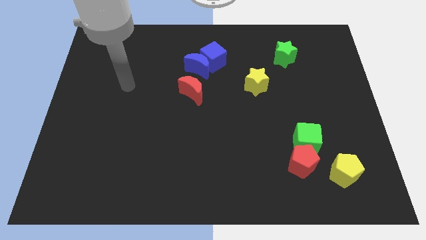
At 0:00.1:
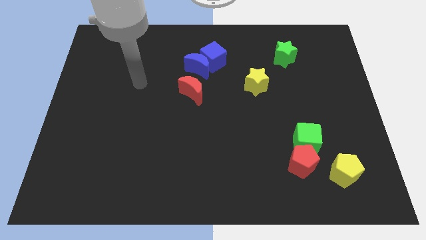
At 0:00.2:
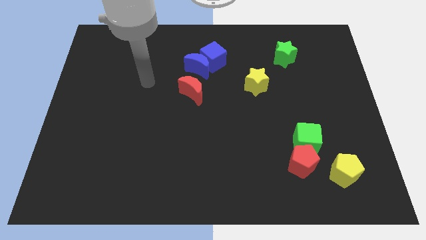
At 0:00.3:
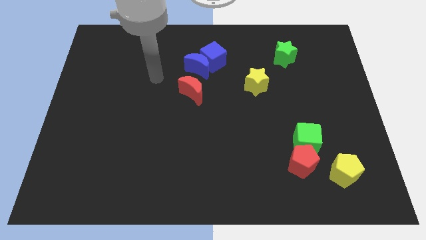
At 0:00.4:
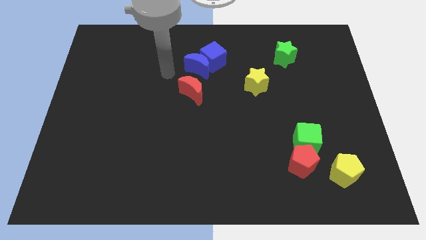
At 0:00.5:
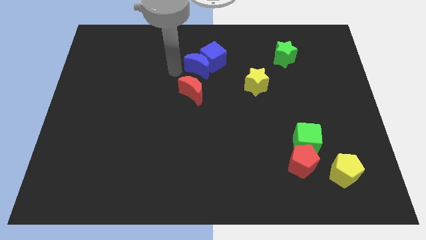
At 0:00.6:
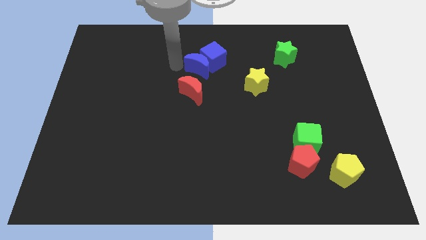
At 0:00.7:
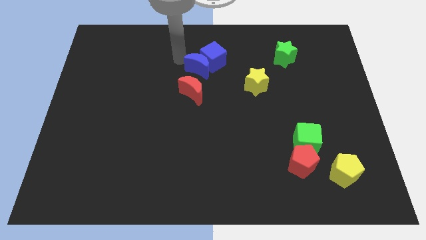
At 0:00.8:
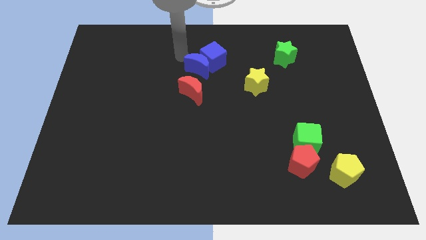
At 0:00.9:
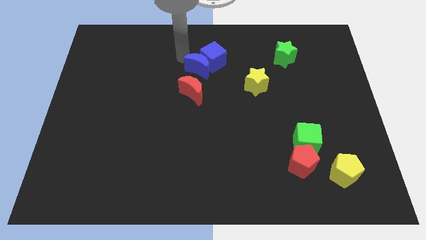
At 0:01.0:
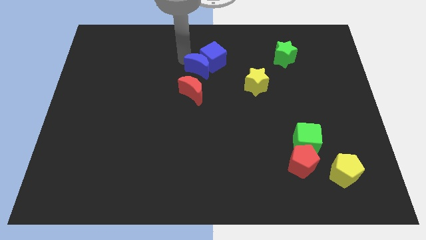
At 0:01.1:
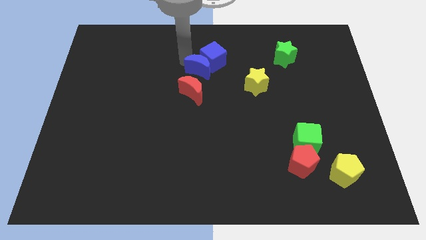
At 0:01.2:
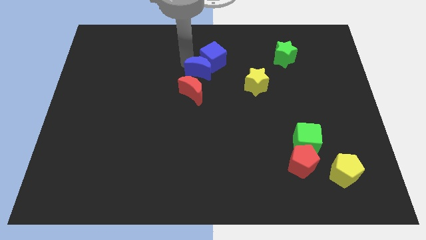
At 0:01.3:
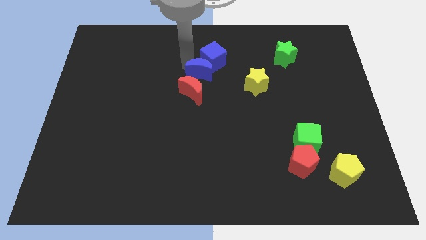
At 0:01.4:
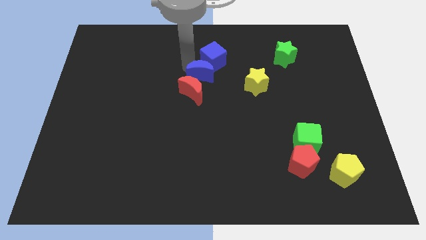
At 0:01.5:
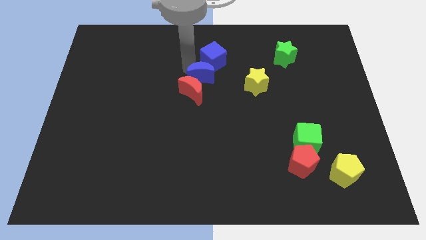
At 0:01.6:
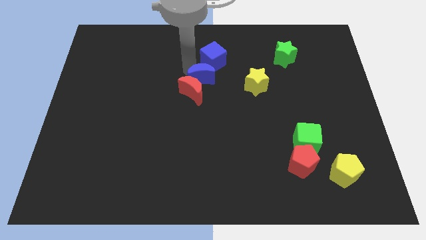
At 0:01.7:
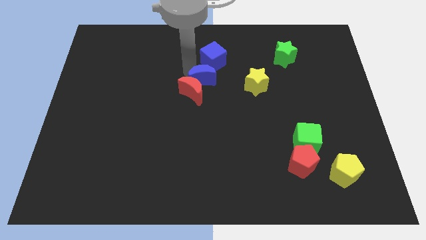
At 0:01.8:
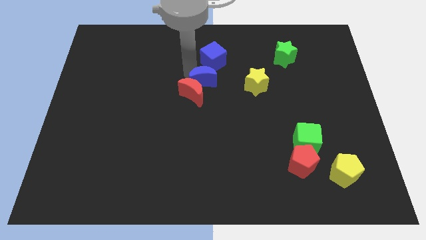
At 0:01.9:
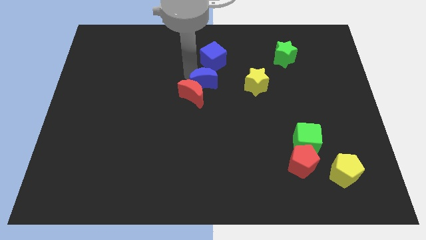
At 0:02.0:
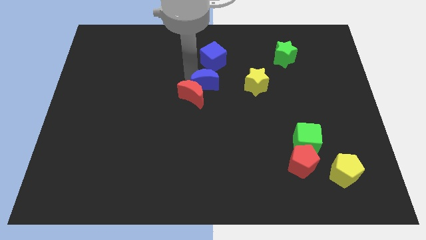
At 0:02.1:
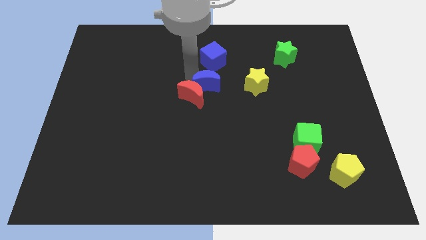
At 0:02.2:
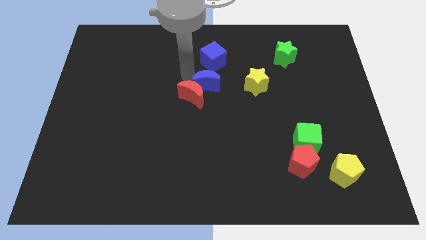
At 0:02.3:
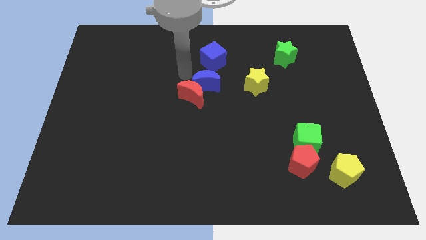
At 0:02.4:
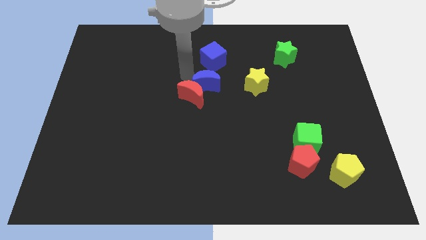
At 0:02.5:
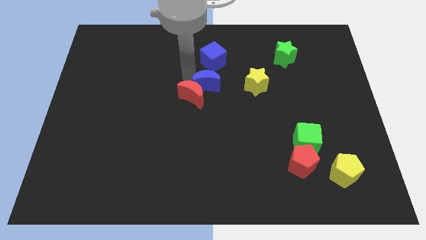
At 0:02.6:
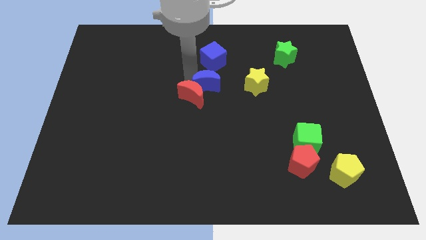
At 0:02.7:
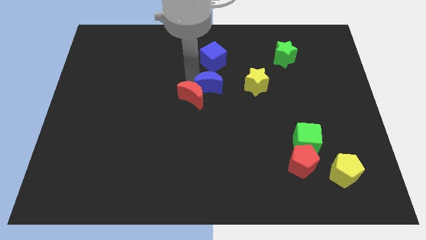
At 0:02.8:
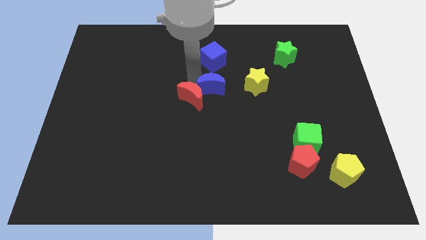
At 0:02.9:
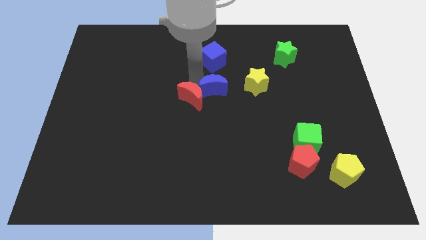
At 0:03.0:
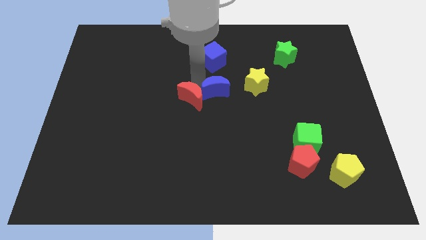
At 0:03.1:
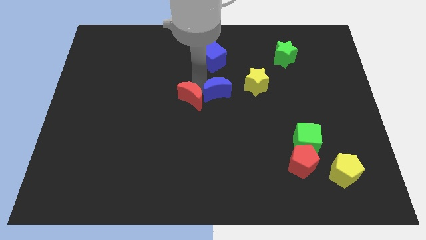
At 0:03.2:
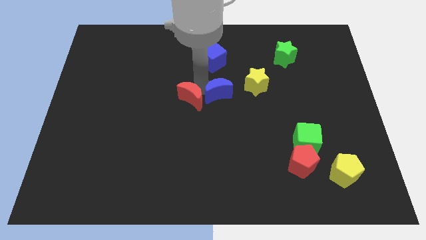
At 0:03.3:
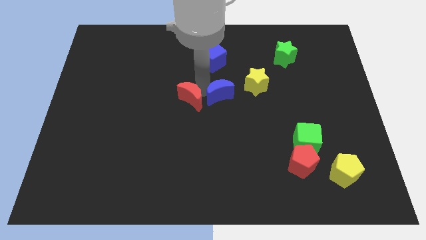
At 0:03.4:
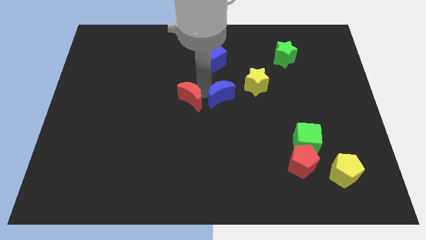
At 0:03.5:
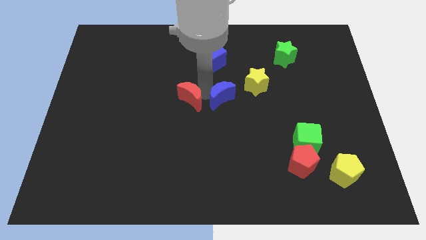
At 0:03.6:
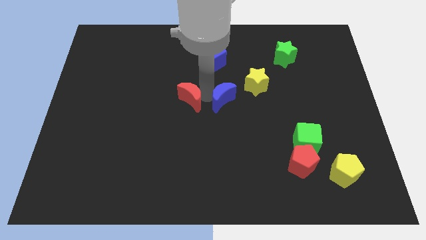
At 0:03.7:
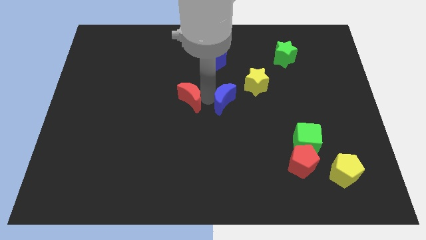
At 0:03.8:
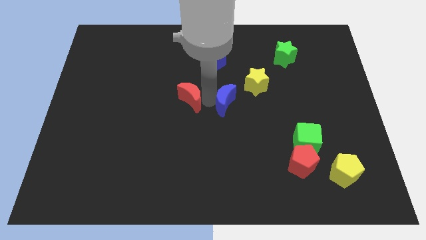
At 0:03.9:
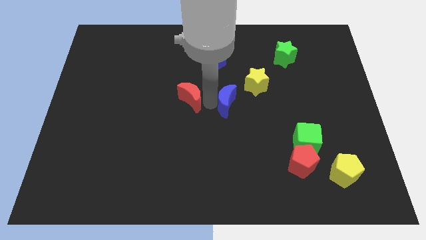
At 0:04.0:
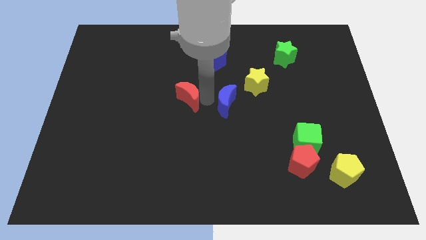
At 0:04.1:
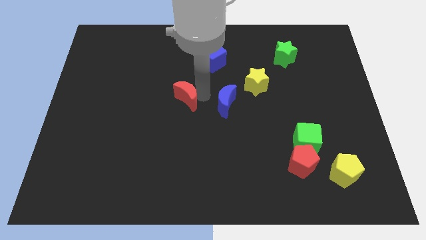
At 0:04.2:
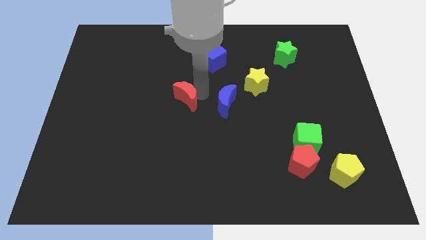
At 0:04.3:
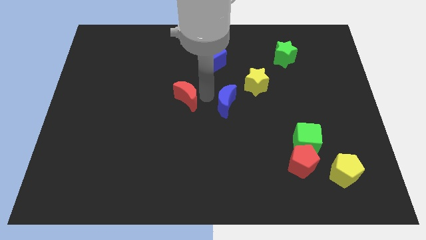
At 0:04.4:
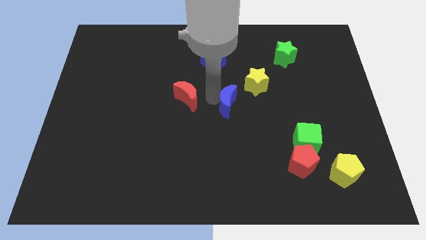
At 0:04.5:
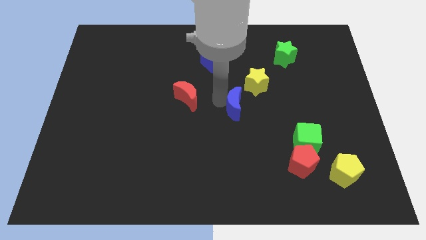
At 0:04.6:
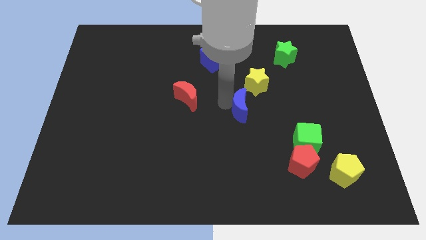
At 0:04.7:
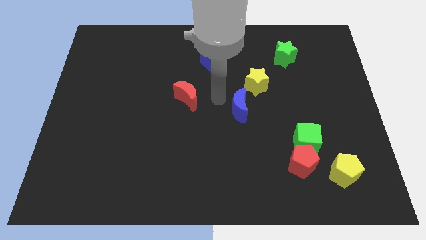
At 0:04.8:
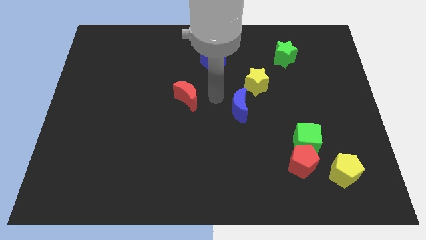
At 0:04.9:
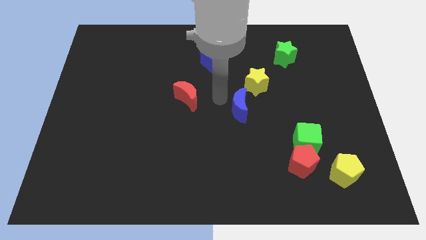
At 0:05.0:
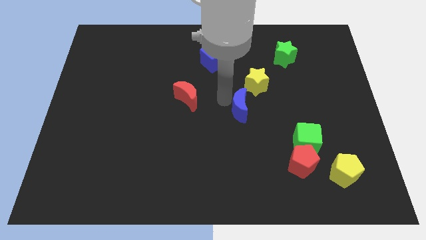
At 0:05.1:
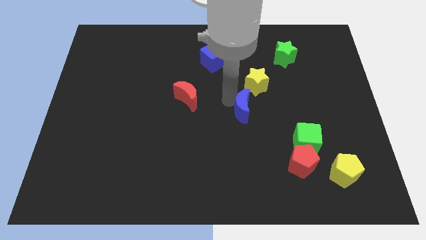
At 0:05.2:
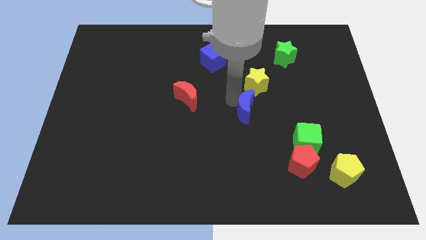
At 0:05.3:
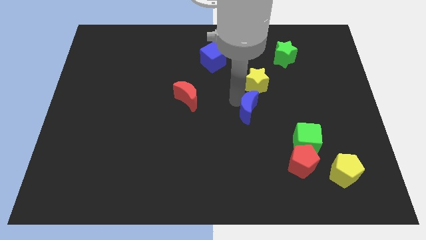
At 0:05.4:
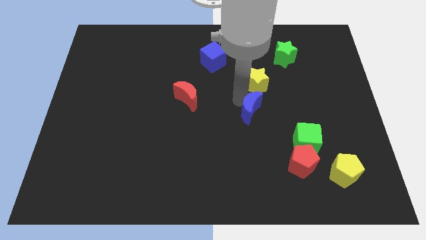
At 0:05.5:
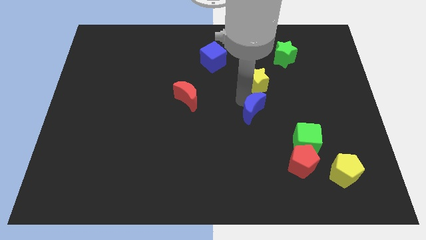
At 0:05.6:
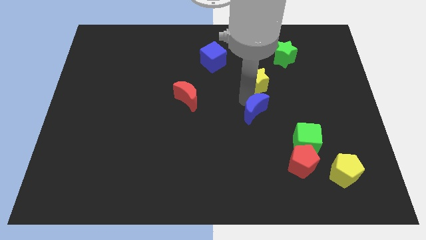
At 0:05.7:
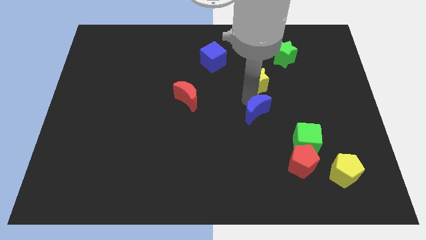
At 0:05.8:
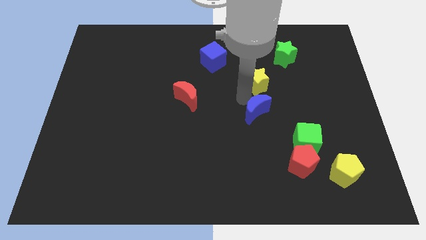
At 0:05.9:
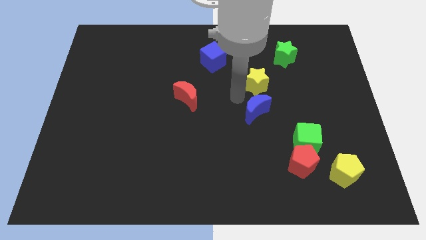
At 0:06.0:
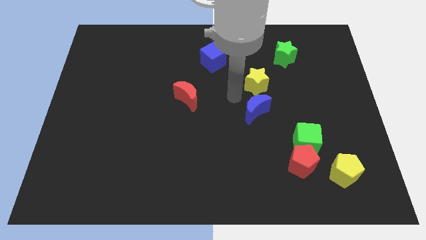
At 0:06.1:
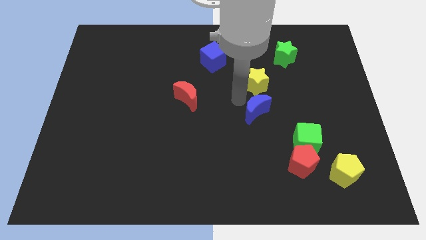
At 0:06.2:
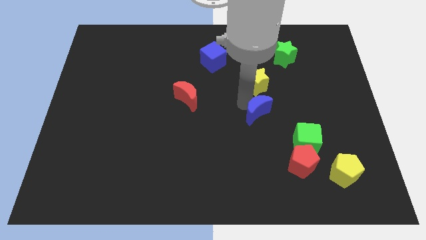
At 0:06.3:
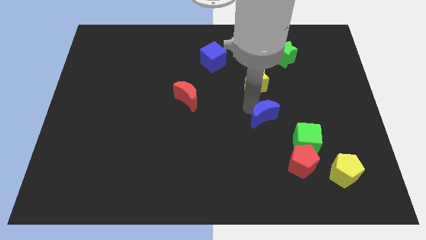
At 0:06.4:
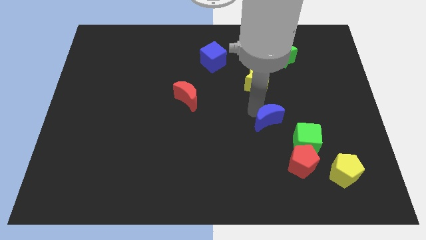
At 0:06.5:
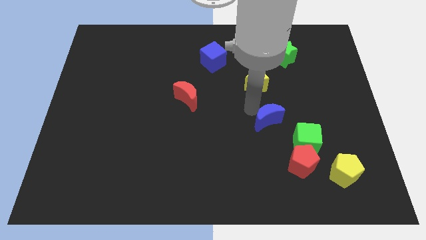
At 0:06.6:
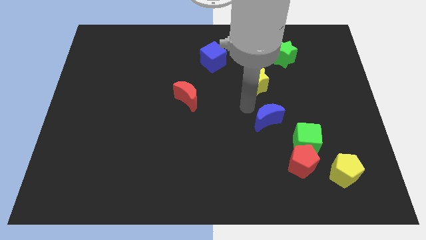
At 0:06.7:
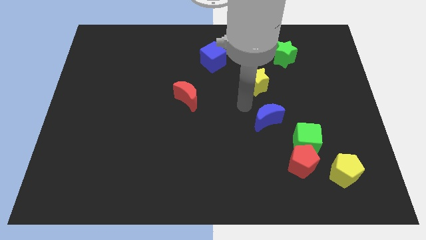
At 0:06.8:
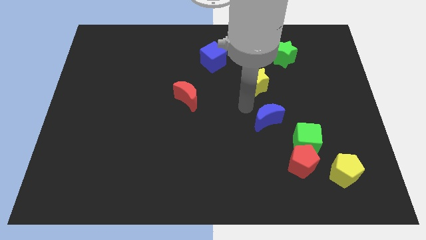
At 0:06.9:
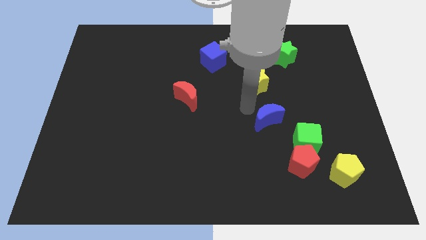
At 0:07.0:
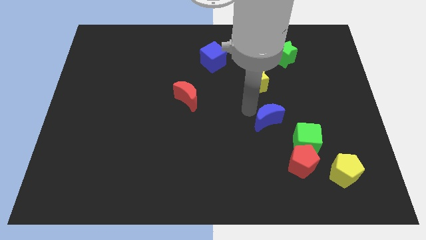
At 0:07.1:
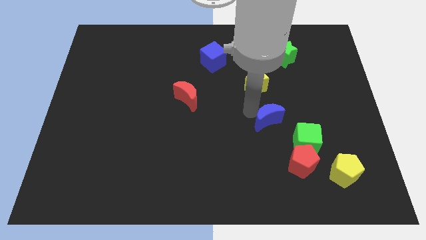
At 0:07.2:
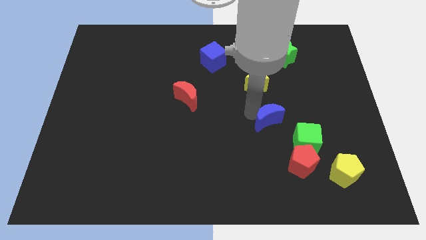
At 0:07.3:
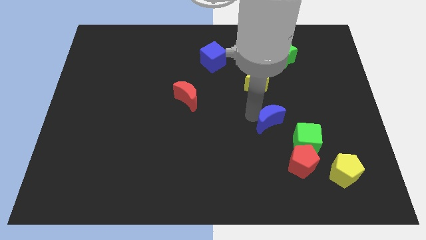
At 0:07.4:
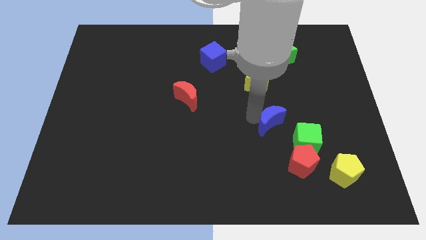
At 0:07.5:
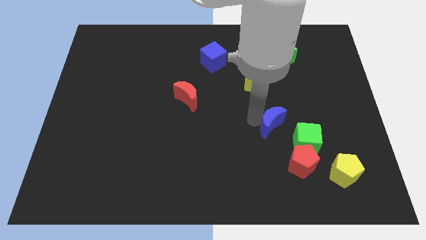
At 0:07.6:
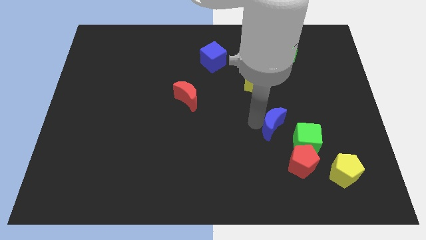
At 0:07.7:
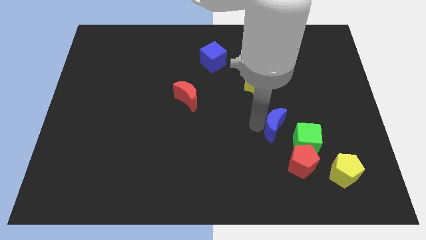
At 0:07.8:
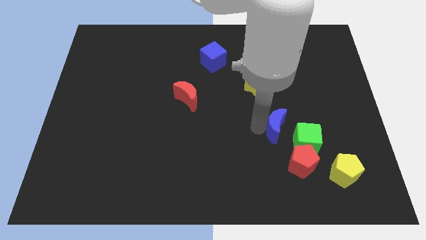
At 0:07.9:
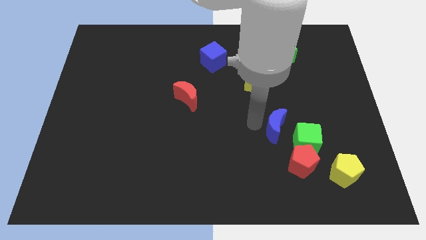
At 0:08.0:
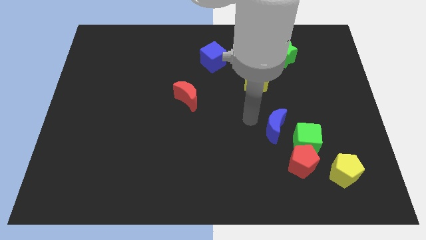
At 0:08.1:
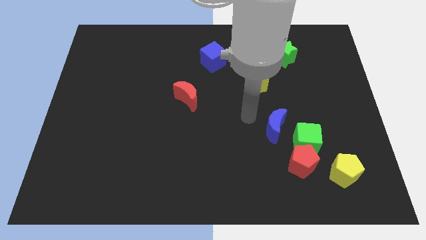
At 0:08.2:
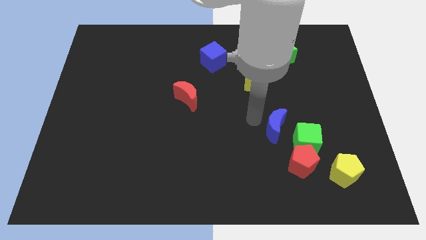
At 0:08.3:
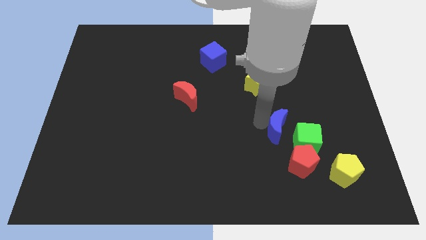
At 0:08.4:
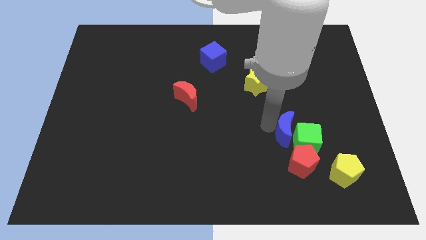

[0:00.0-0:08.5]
move the blue moon next to the green cube
